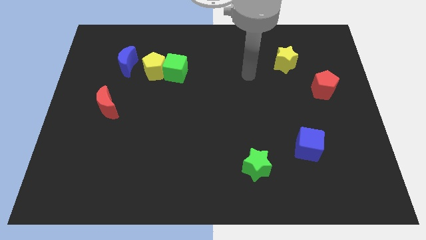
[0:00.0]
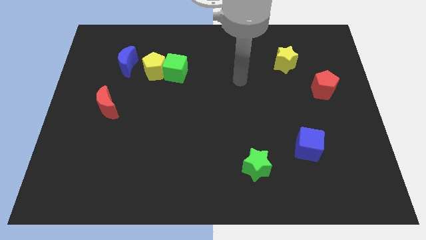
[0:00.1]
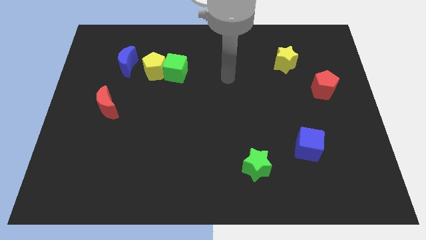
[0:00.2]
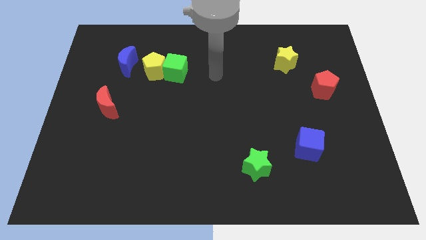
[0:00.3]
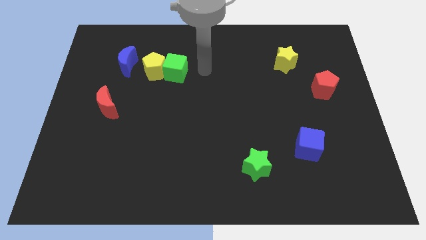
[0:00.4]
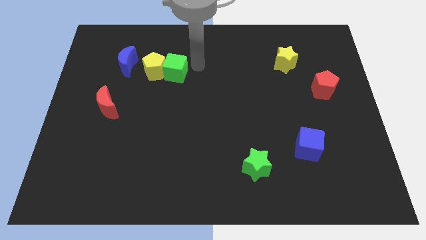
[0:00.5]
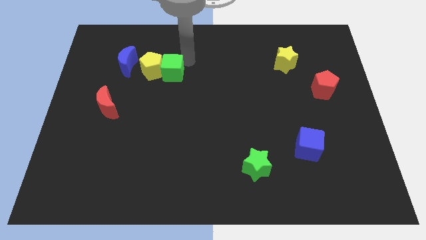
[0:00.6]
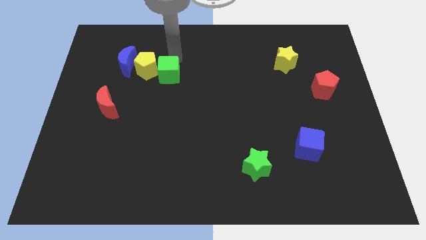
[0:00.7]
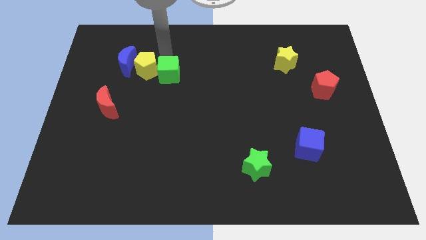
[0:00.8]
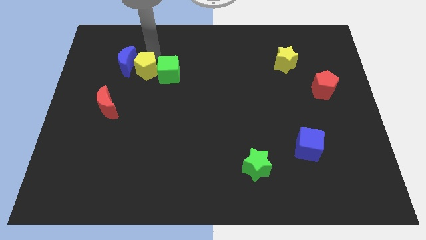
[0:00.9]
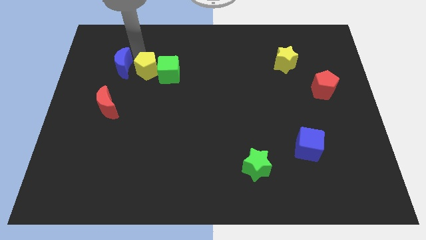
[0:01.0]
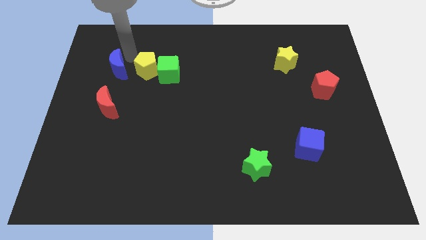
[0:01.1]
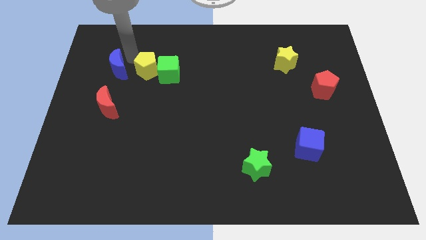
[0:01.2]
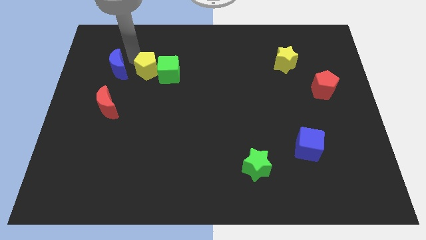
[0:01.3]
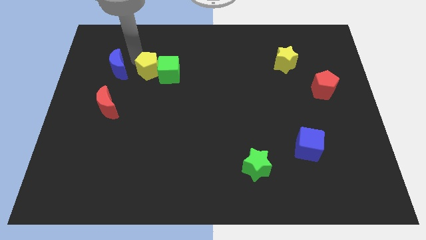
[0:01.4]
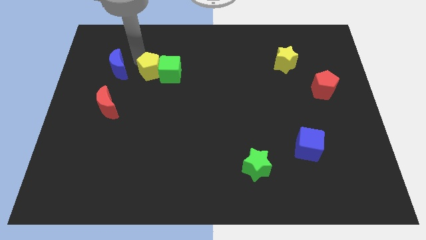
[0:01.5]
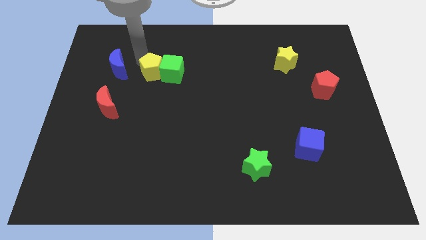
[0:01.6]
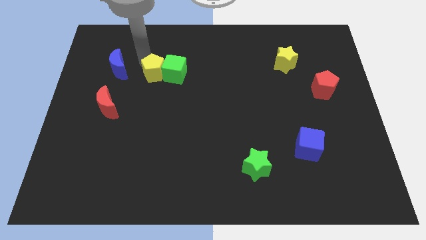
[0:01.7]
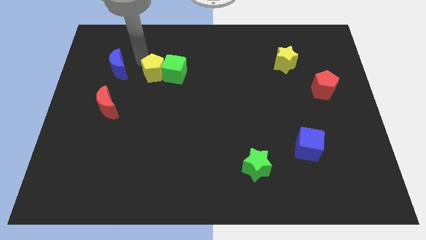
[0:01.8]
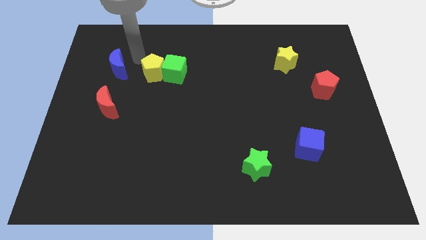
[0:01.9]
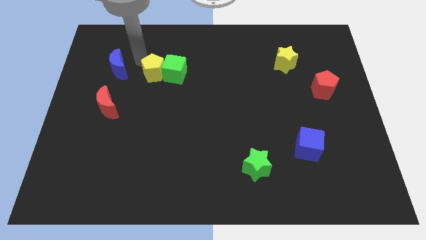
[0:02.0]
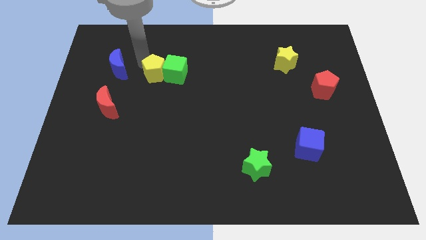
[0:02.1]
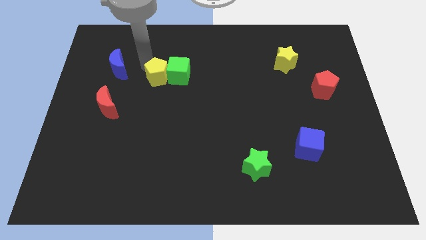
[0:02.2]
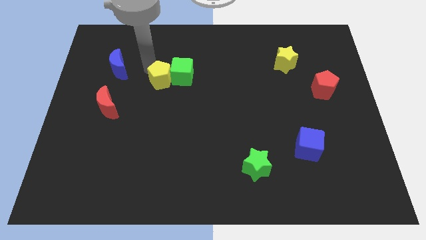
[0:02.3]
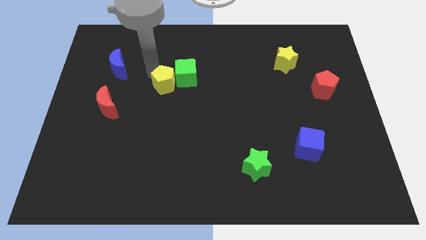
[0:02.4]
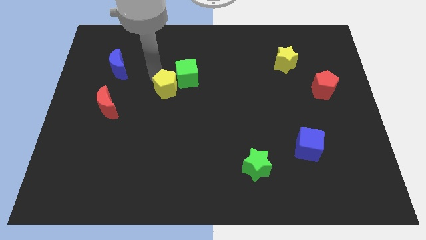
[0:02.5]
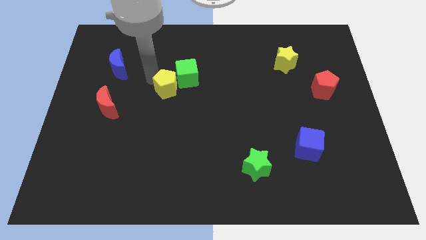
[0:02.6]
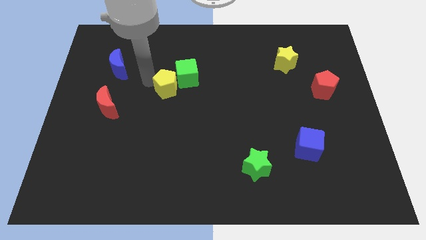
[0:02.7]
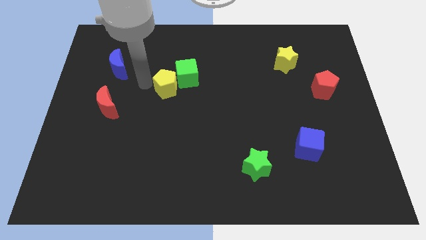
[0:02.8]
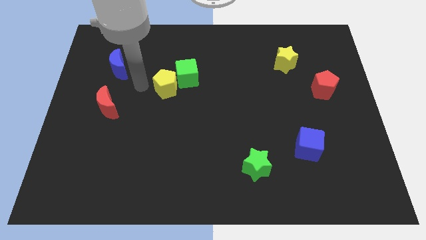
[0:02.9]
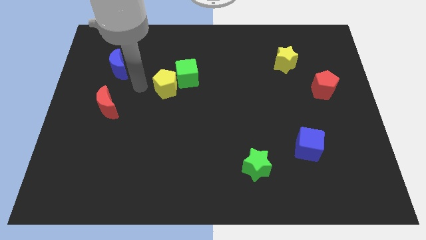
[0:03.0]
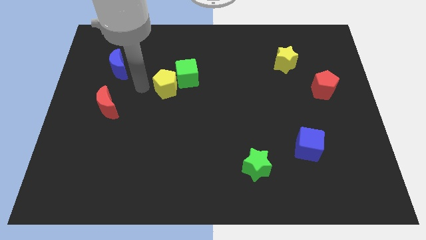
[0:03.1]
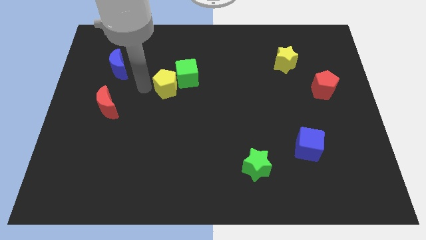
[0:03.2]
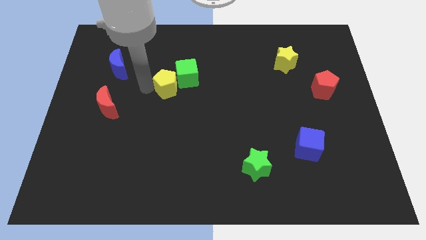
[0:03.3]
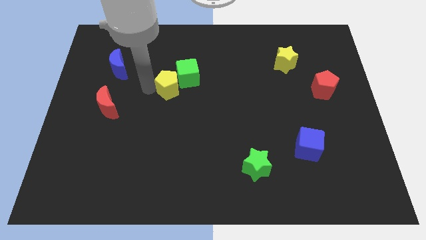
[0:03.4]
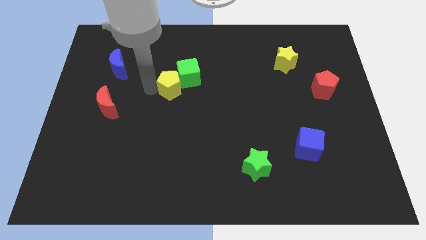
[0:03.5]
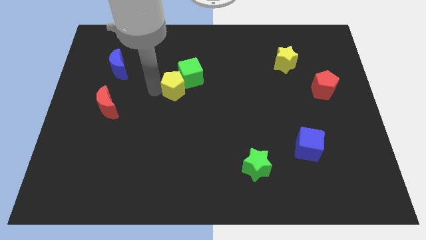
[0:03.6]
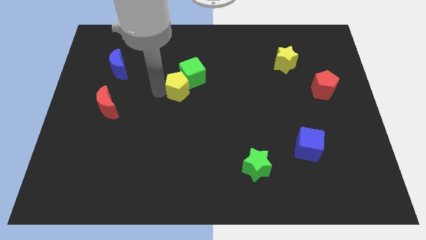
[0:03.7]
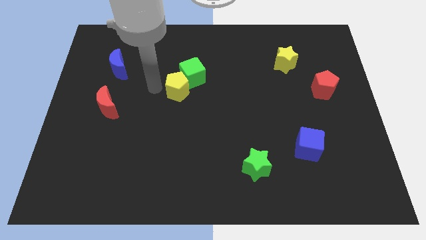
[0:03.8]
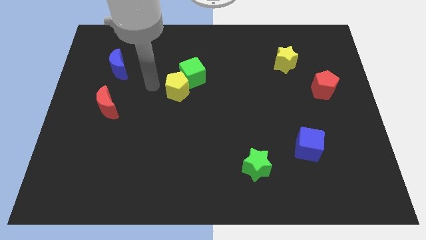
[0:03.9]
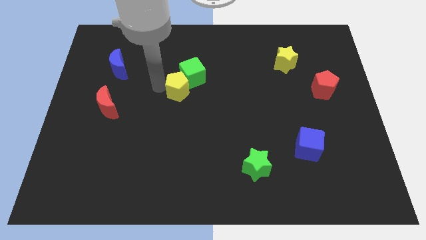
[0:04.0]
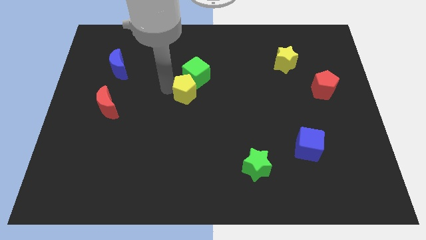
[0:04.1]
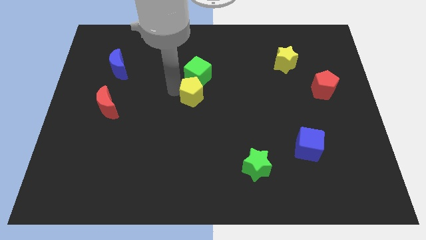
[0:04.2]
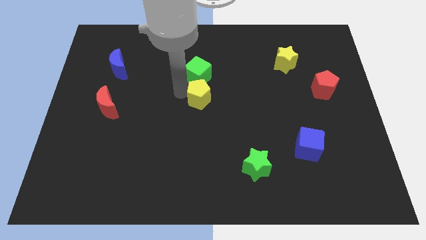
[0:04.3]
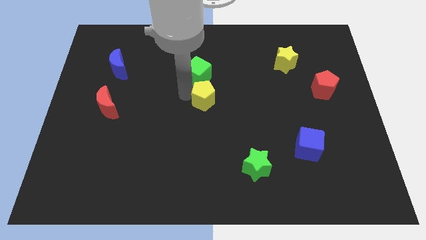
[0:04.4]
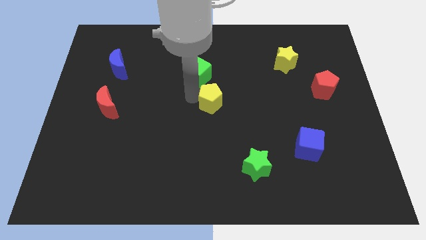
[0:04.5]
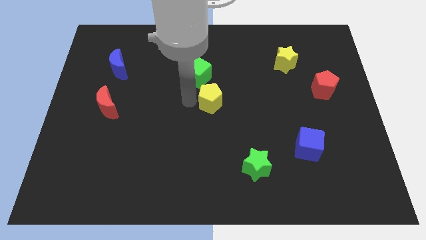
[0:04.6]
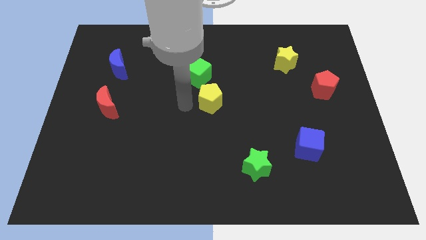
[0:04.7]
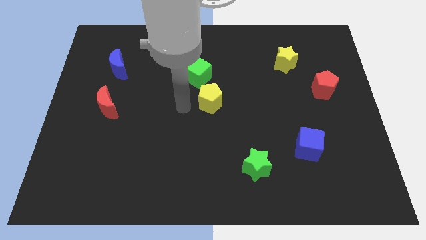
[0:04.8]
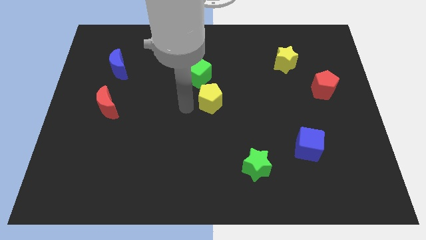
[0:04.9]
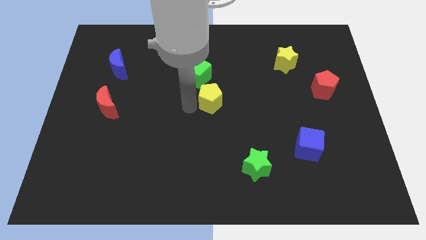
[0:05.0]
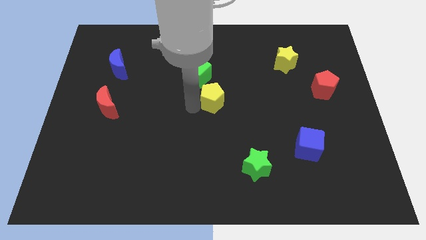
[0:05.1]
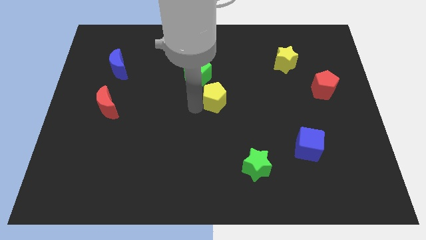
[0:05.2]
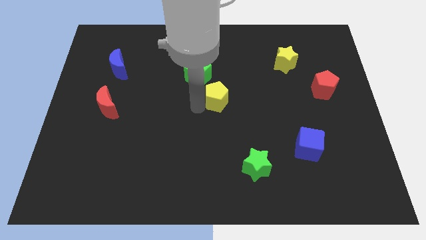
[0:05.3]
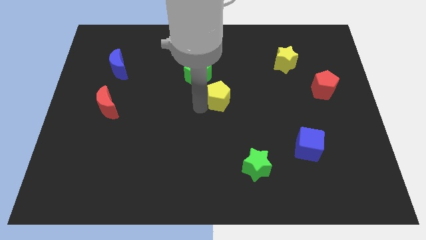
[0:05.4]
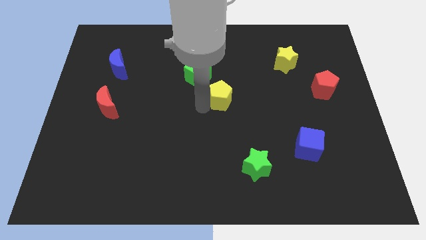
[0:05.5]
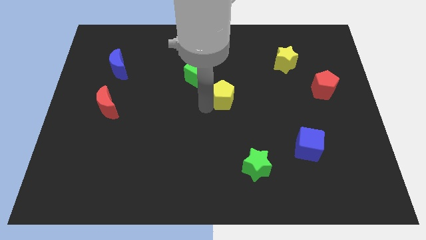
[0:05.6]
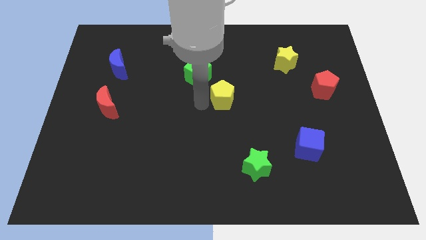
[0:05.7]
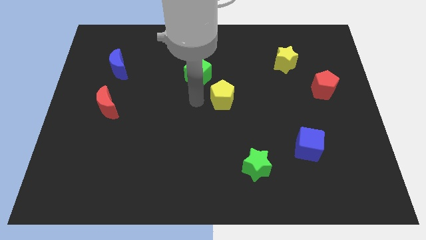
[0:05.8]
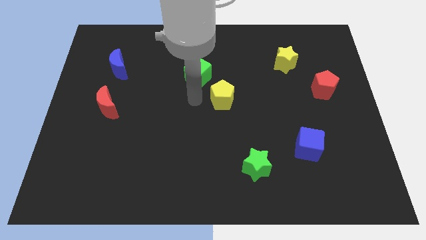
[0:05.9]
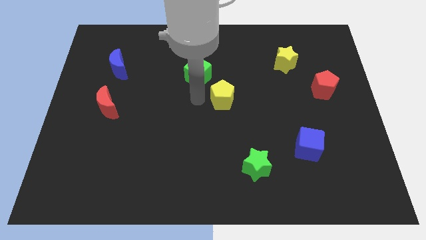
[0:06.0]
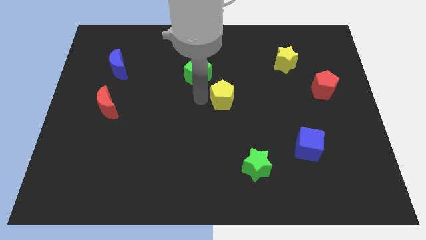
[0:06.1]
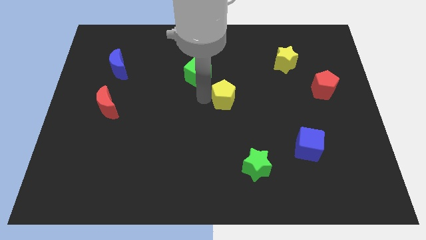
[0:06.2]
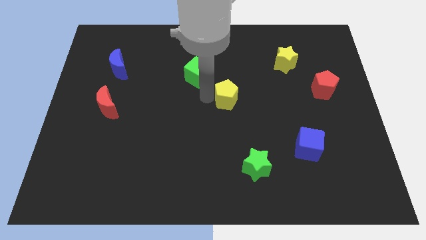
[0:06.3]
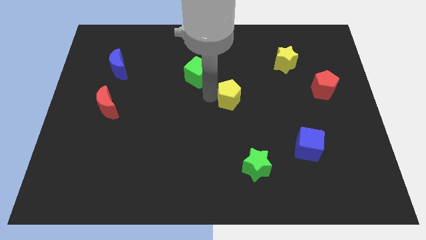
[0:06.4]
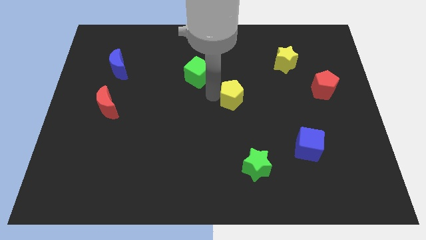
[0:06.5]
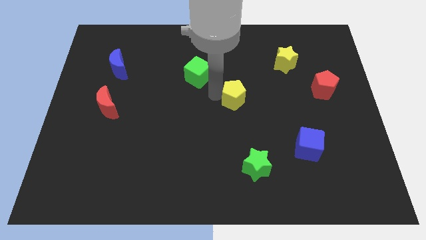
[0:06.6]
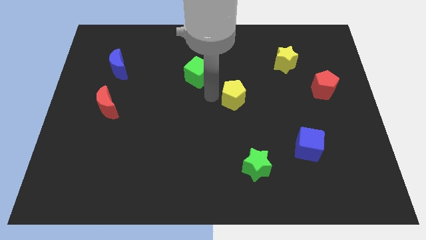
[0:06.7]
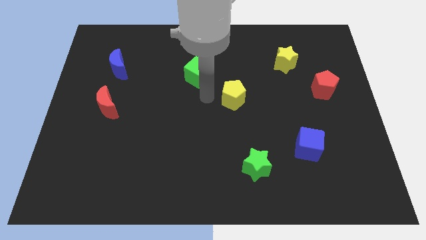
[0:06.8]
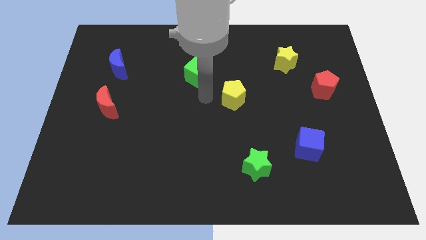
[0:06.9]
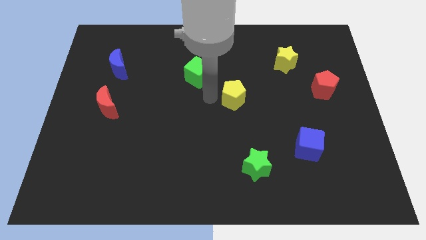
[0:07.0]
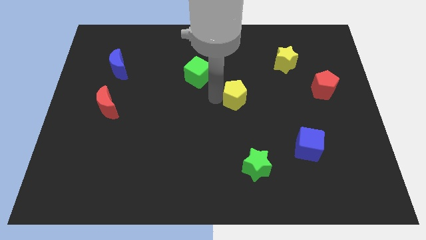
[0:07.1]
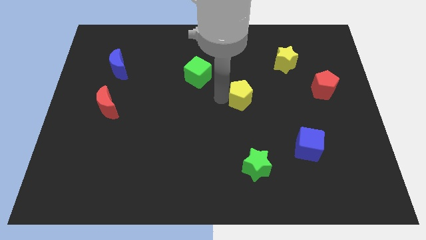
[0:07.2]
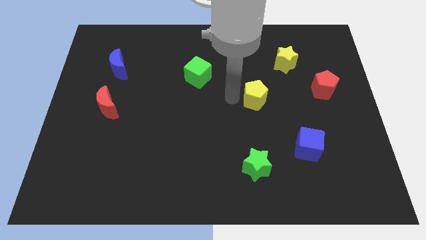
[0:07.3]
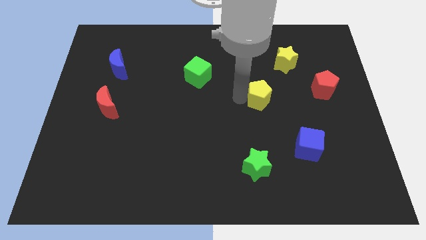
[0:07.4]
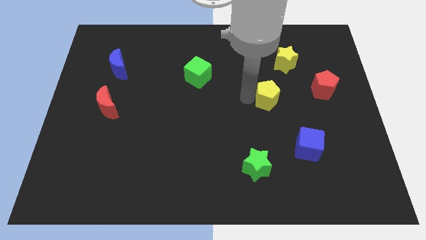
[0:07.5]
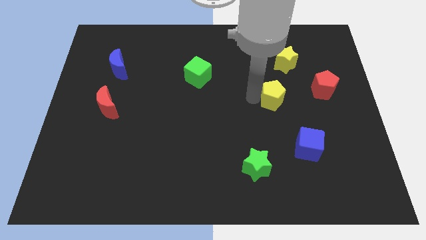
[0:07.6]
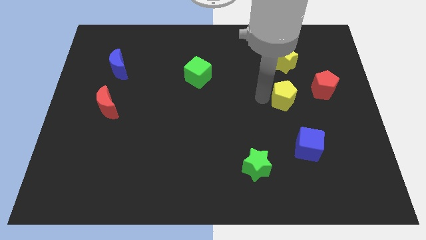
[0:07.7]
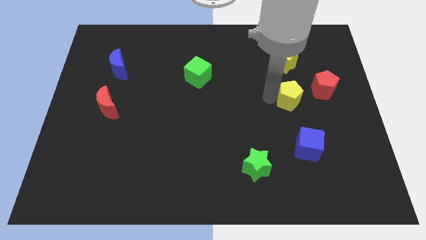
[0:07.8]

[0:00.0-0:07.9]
put the yellow pentagon to the bottom left of the red pentagon
